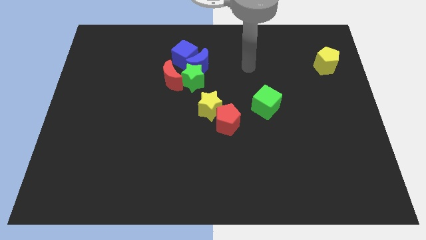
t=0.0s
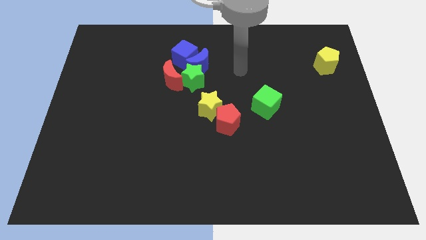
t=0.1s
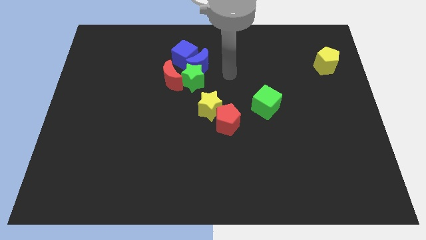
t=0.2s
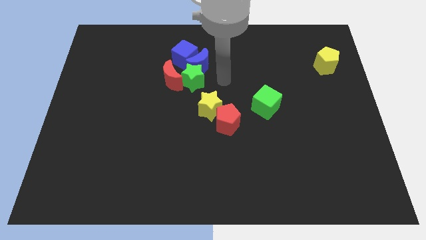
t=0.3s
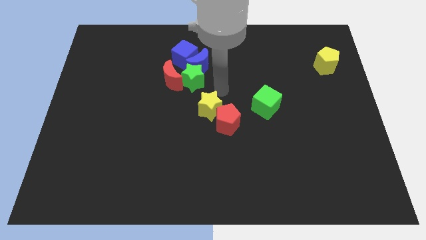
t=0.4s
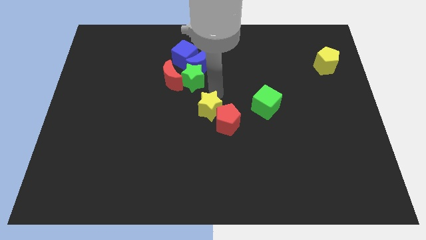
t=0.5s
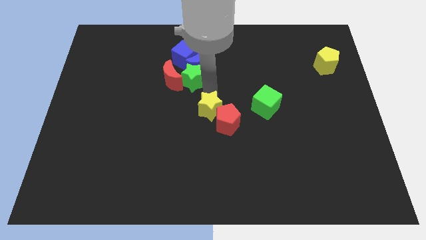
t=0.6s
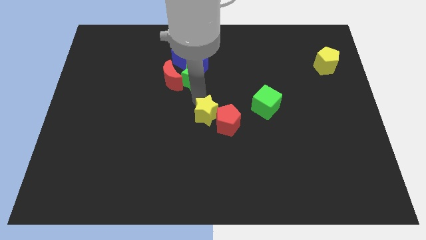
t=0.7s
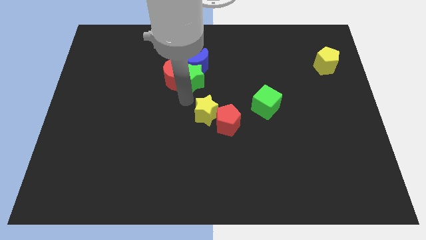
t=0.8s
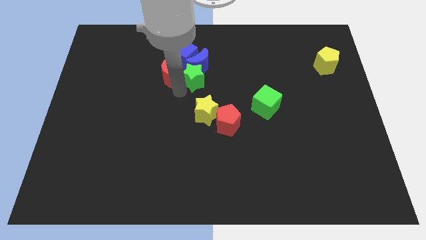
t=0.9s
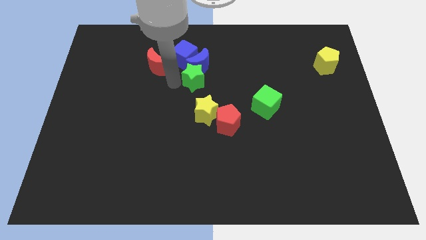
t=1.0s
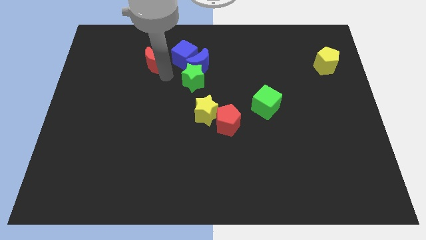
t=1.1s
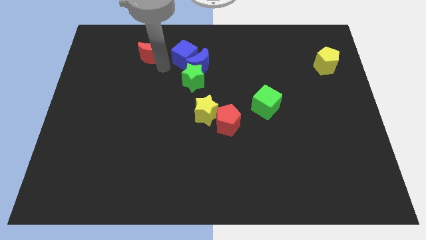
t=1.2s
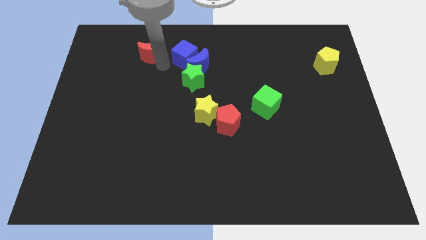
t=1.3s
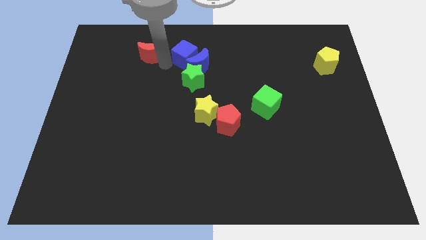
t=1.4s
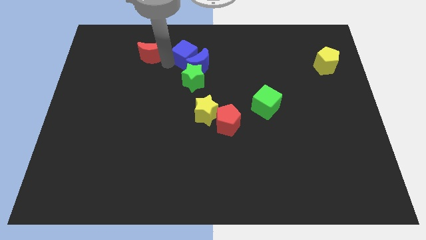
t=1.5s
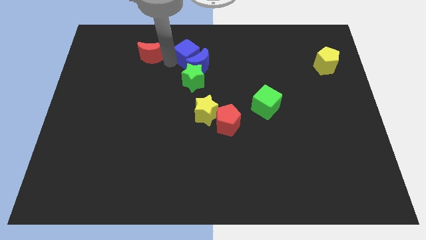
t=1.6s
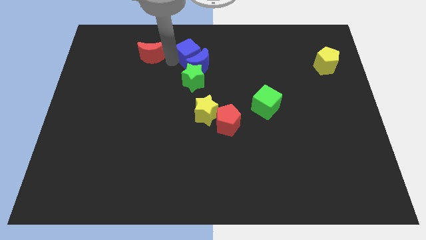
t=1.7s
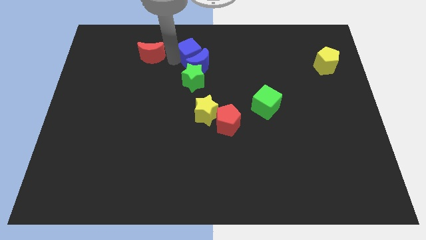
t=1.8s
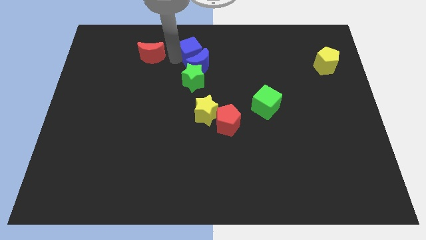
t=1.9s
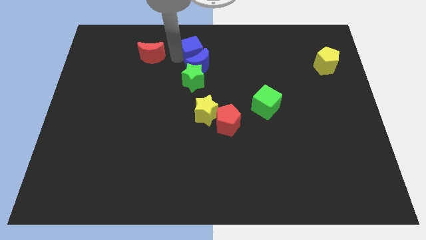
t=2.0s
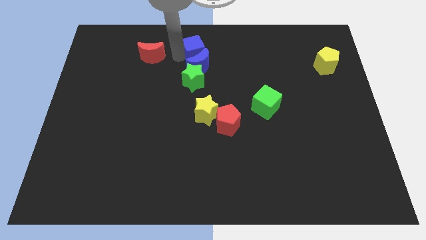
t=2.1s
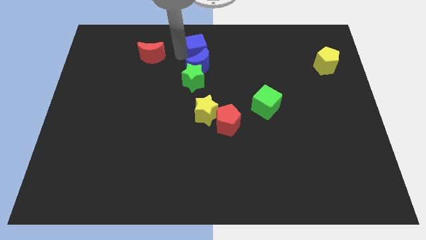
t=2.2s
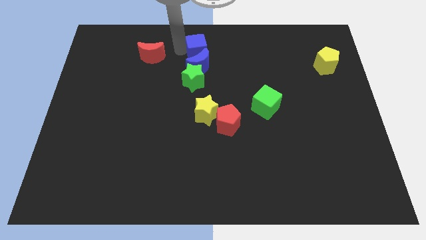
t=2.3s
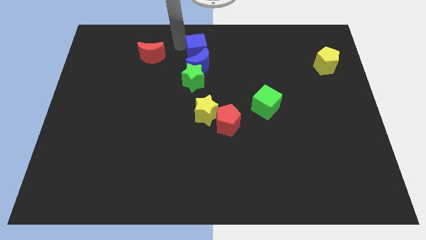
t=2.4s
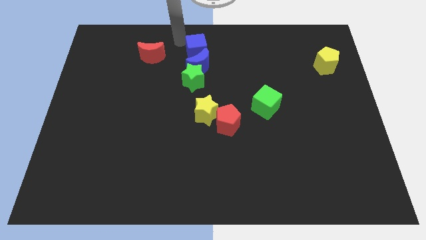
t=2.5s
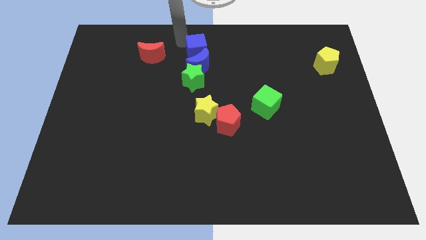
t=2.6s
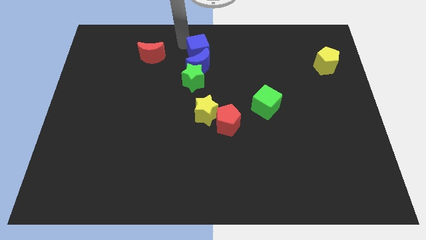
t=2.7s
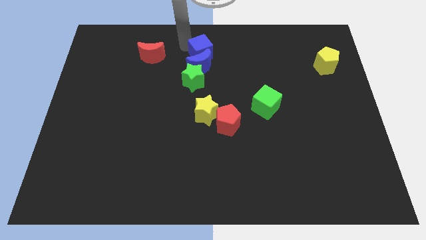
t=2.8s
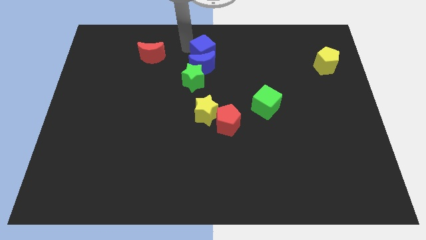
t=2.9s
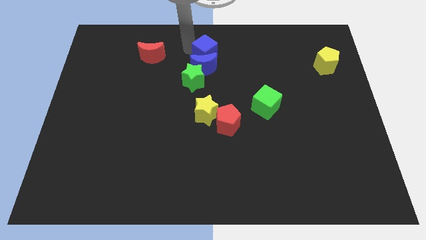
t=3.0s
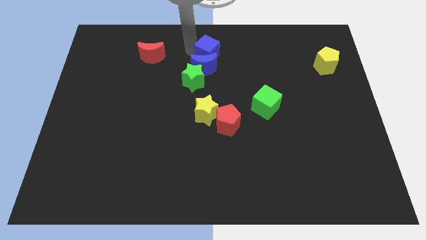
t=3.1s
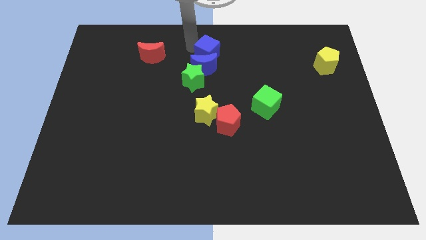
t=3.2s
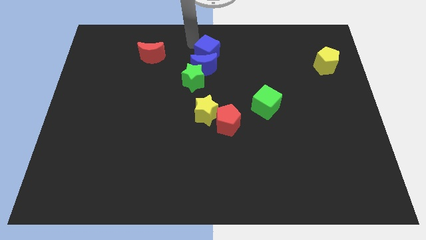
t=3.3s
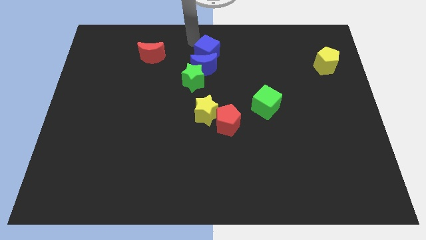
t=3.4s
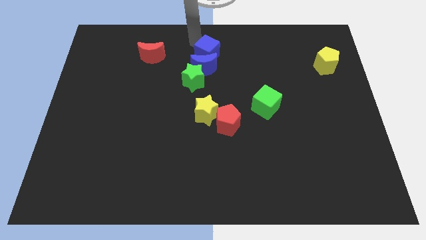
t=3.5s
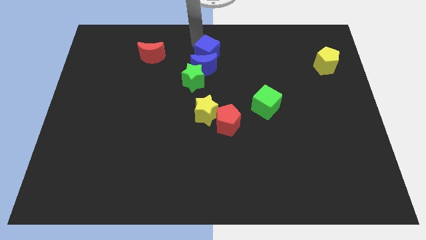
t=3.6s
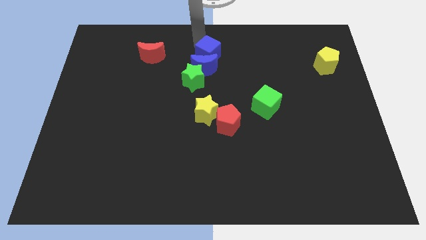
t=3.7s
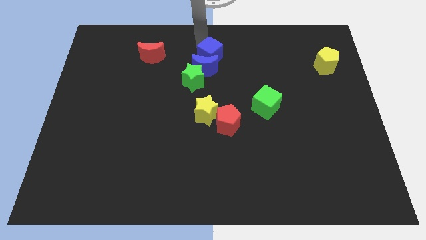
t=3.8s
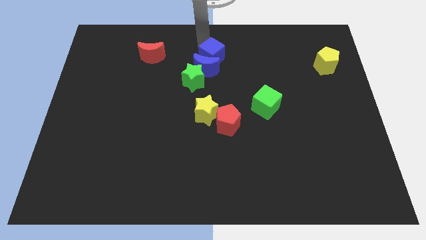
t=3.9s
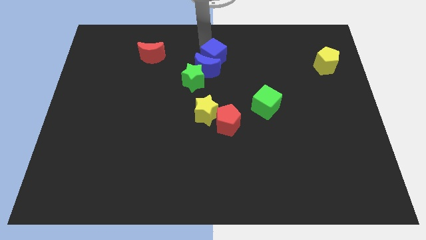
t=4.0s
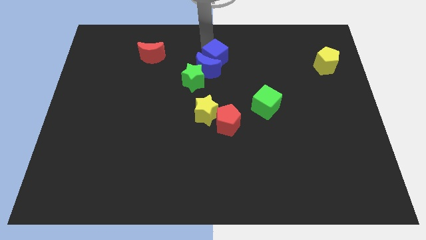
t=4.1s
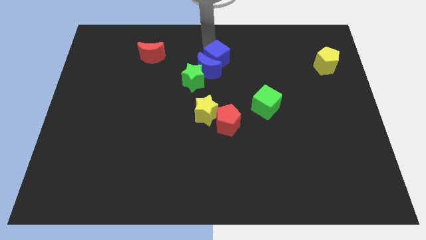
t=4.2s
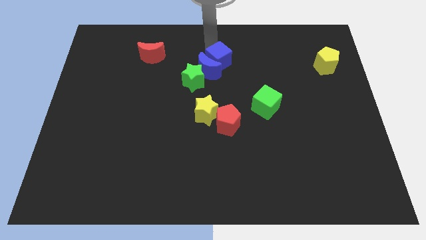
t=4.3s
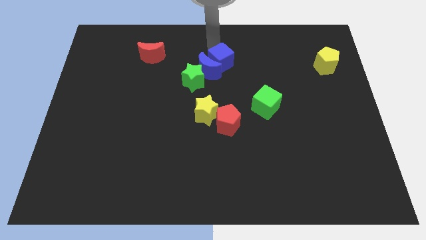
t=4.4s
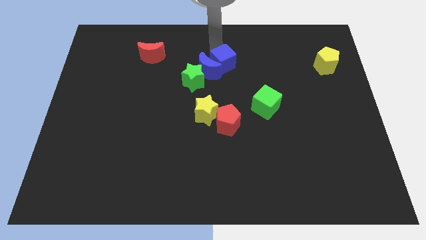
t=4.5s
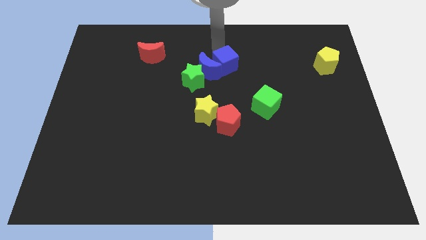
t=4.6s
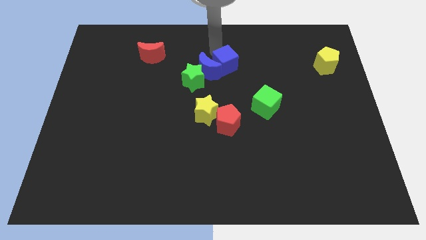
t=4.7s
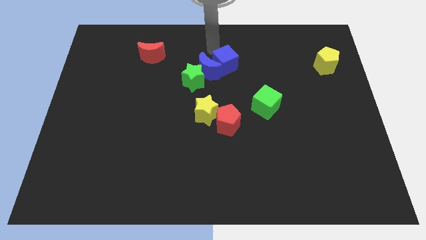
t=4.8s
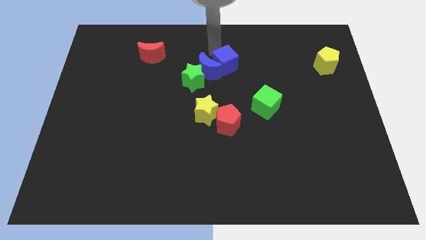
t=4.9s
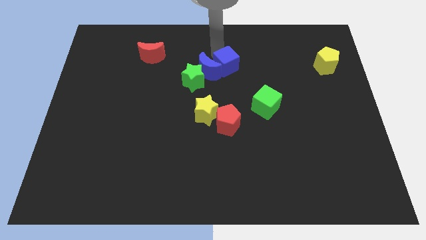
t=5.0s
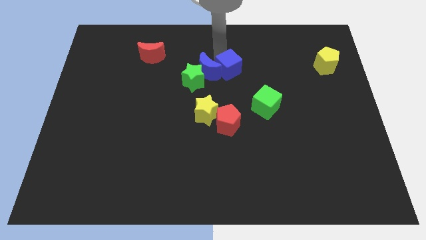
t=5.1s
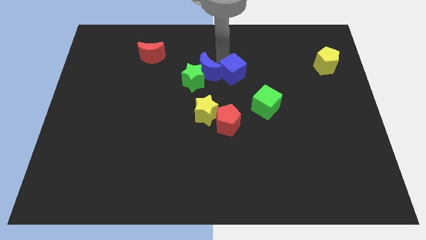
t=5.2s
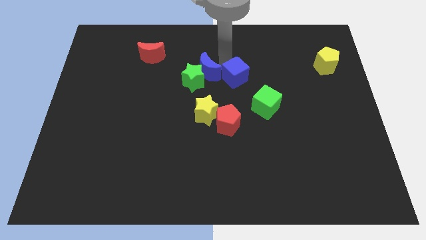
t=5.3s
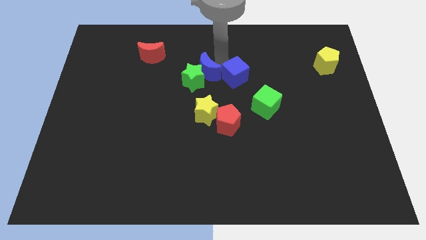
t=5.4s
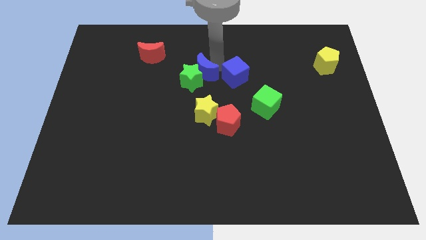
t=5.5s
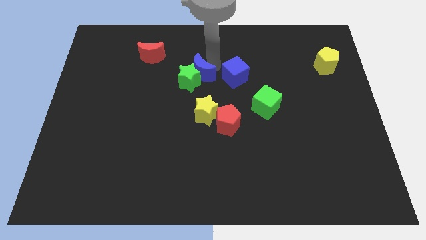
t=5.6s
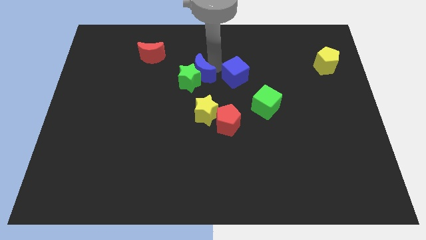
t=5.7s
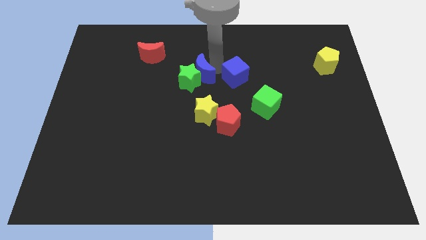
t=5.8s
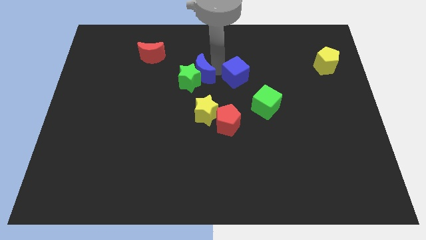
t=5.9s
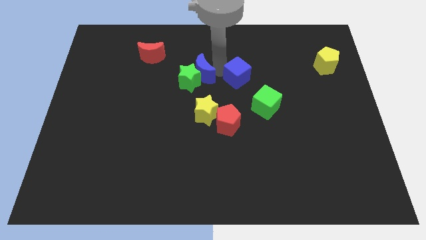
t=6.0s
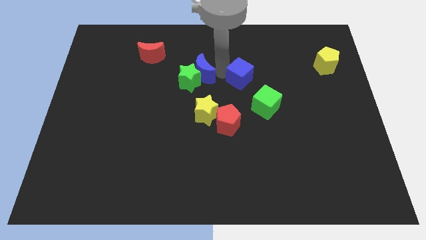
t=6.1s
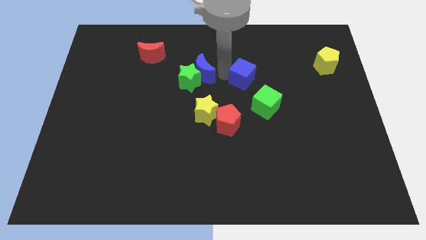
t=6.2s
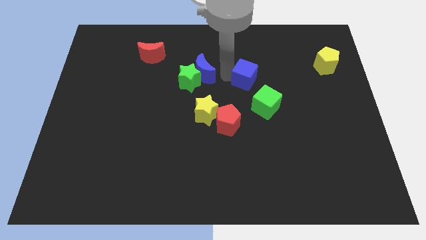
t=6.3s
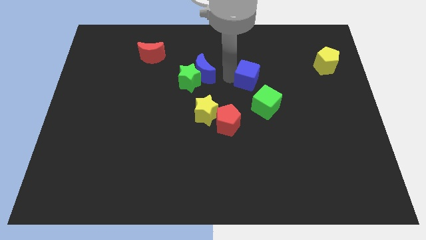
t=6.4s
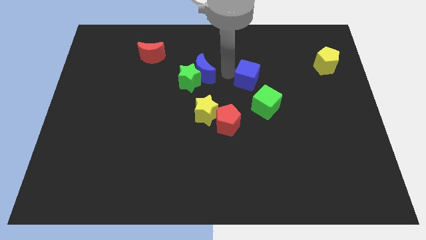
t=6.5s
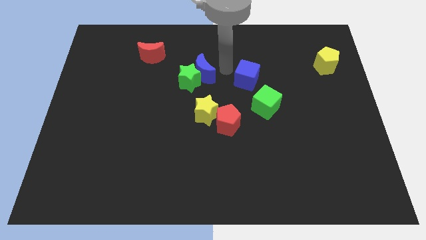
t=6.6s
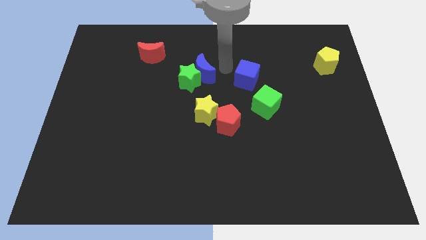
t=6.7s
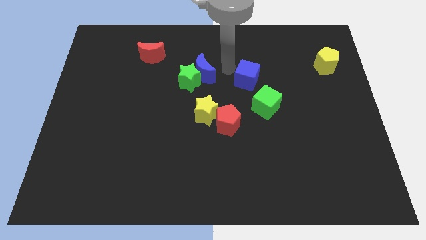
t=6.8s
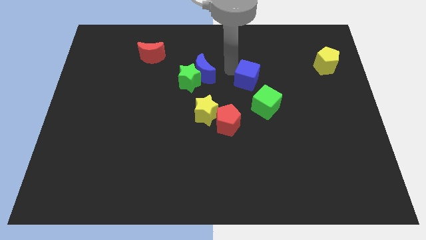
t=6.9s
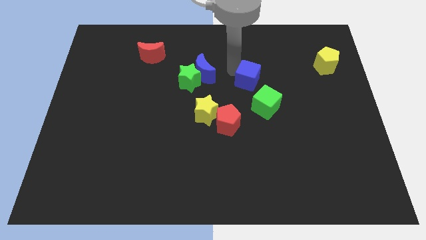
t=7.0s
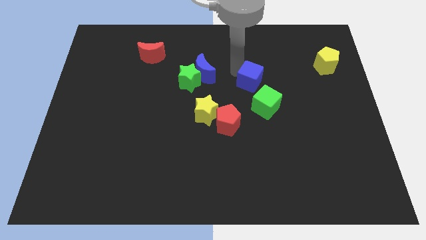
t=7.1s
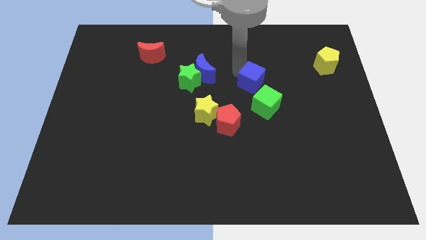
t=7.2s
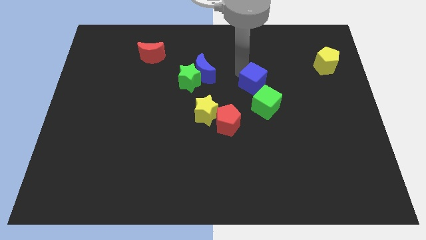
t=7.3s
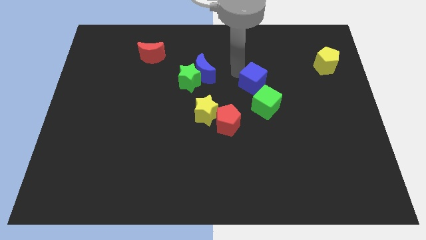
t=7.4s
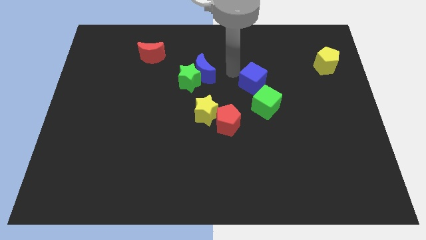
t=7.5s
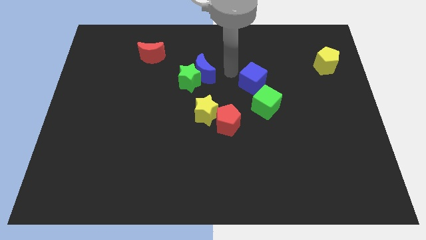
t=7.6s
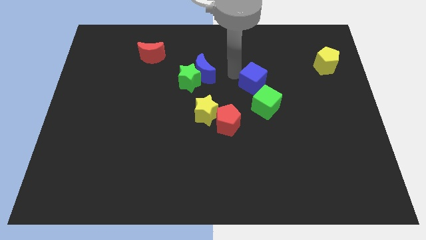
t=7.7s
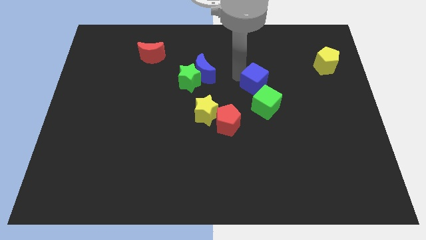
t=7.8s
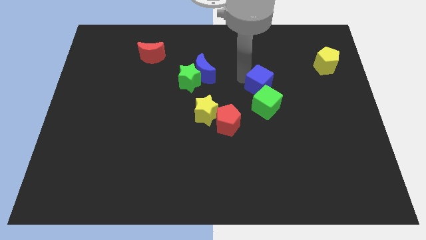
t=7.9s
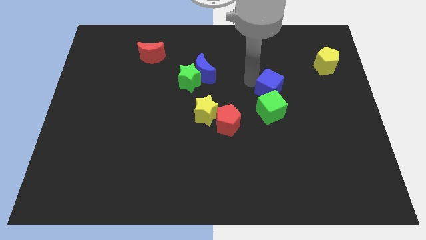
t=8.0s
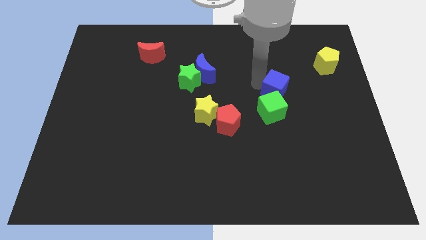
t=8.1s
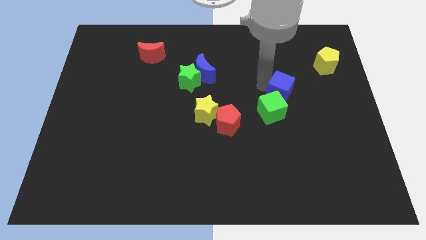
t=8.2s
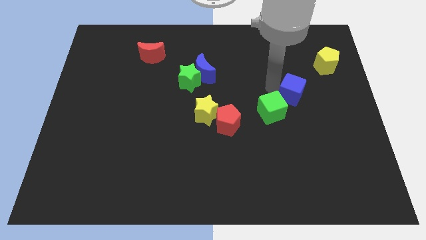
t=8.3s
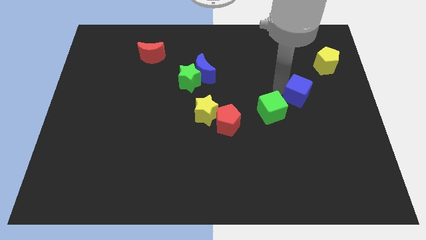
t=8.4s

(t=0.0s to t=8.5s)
put the blue cube to the right of the green cube
